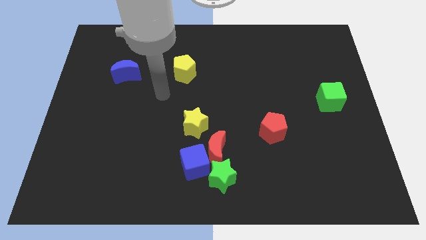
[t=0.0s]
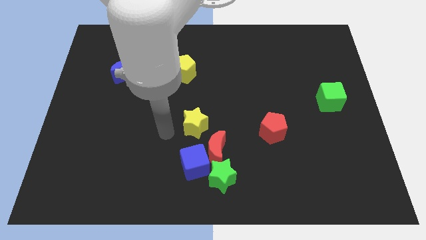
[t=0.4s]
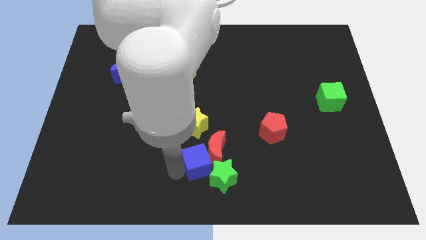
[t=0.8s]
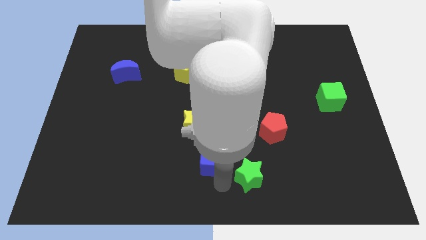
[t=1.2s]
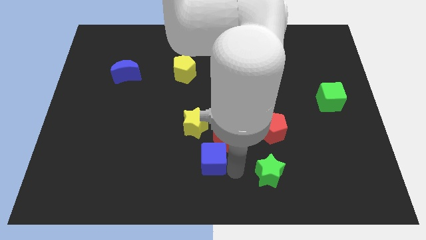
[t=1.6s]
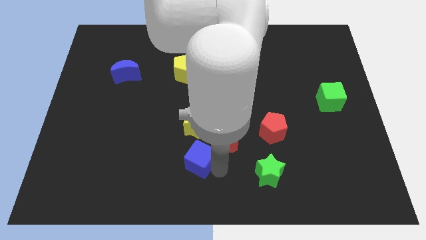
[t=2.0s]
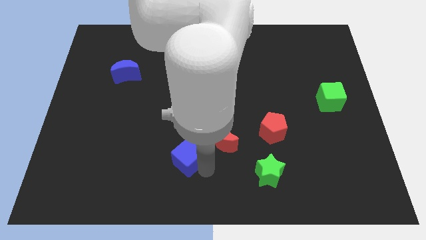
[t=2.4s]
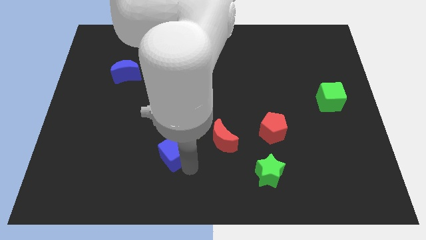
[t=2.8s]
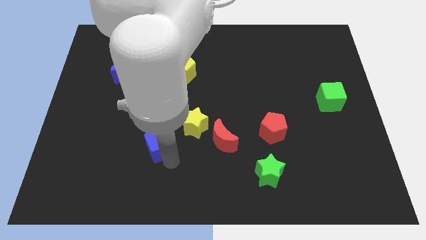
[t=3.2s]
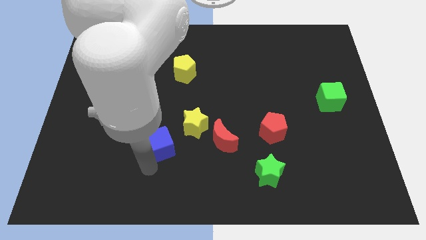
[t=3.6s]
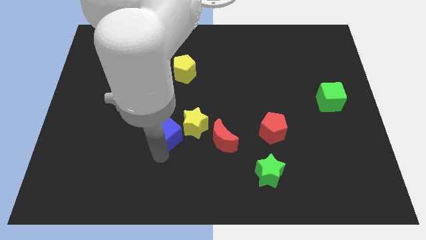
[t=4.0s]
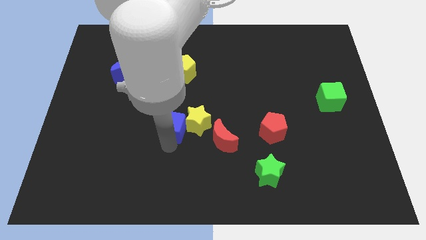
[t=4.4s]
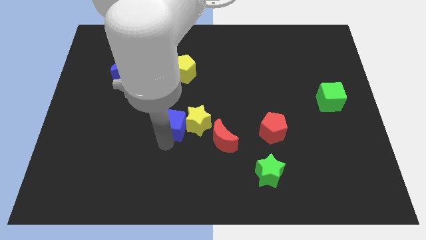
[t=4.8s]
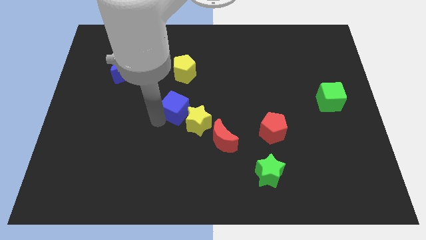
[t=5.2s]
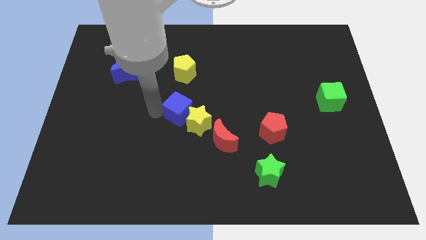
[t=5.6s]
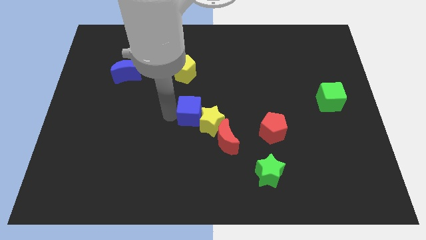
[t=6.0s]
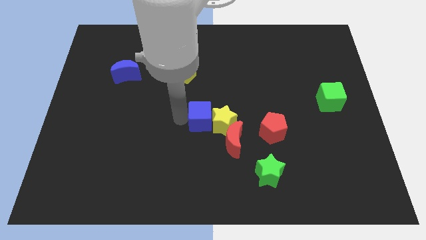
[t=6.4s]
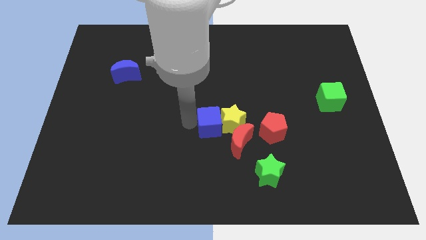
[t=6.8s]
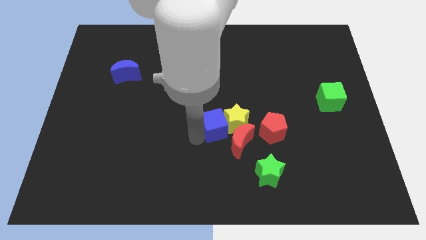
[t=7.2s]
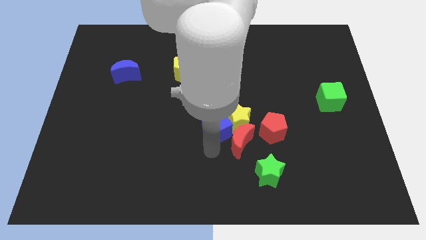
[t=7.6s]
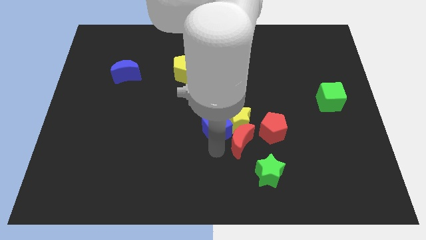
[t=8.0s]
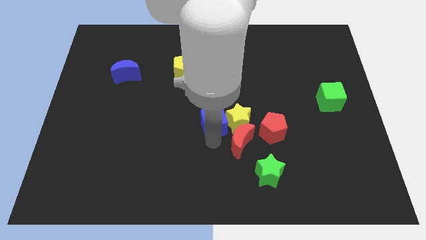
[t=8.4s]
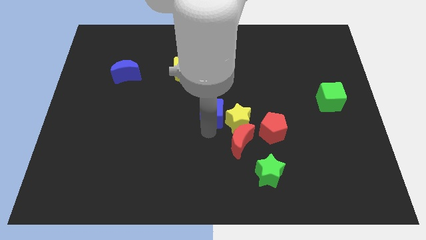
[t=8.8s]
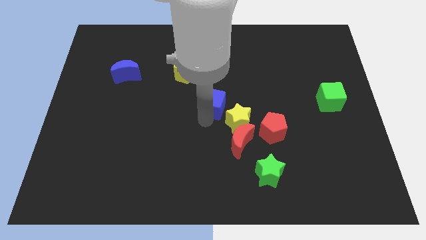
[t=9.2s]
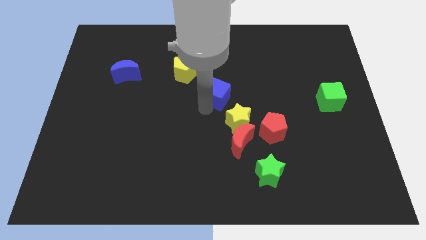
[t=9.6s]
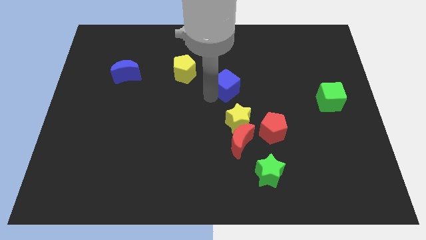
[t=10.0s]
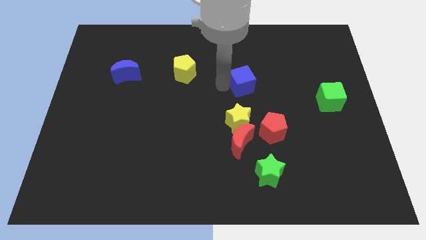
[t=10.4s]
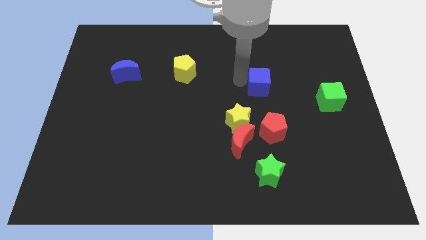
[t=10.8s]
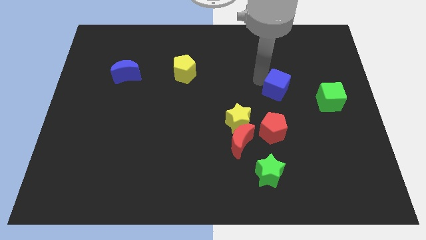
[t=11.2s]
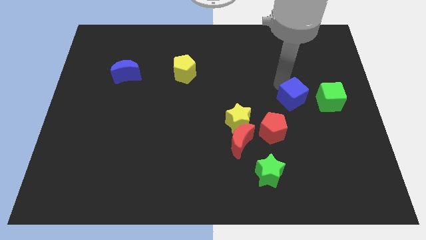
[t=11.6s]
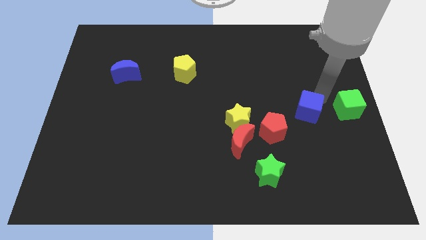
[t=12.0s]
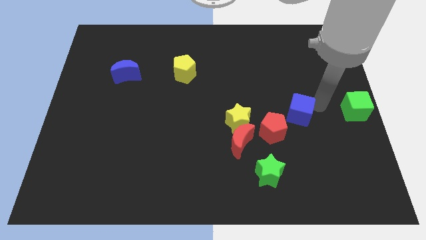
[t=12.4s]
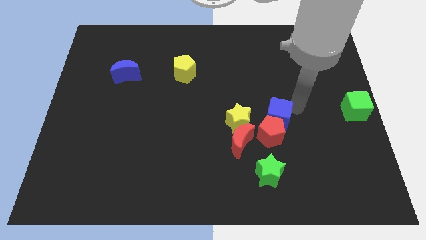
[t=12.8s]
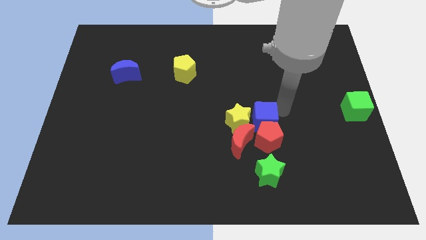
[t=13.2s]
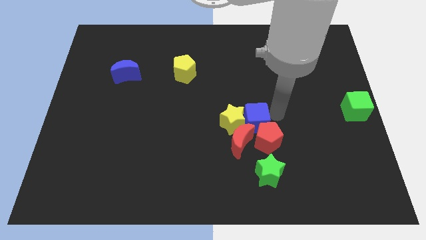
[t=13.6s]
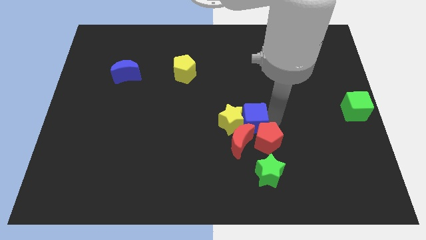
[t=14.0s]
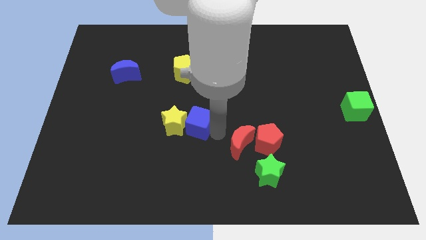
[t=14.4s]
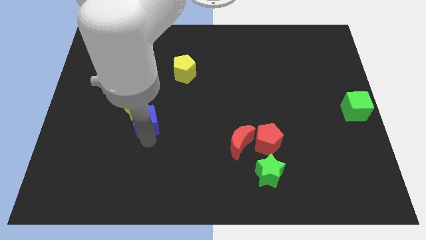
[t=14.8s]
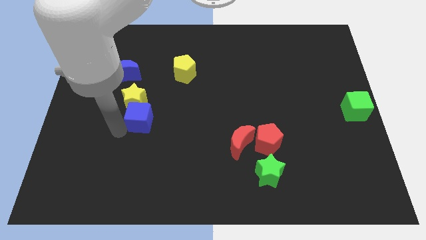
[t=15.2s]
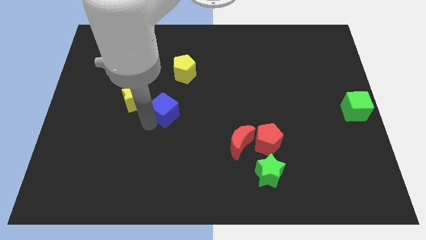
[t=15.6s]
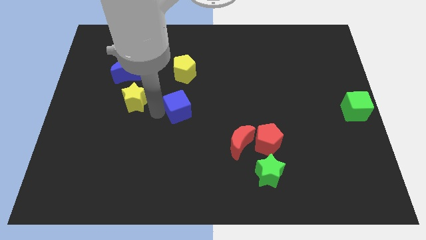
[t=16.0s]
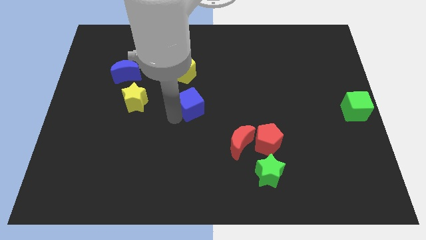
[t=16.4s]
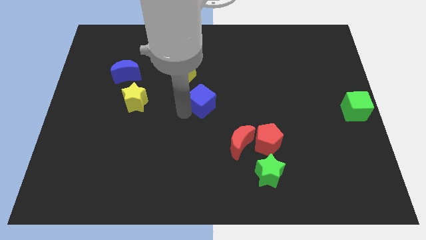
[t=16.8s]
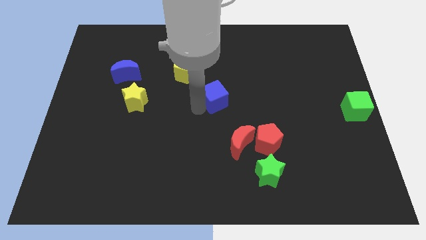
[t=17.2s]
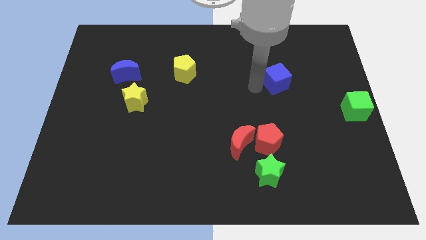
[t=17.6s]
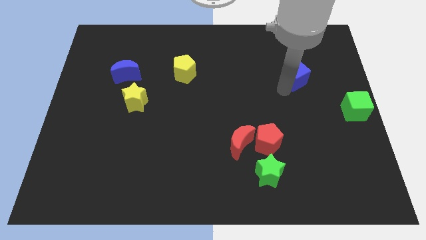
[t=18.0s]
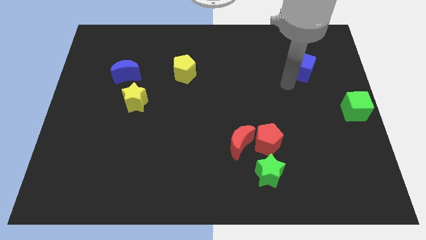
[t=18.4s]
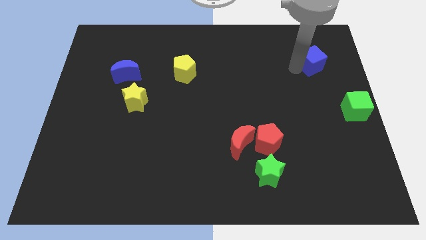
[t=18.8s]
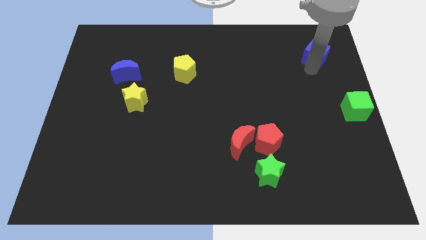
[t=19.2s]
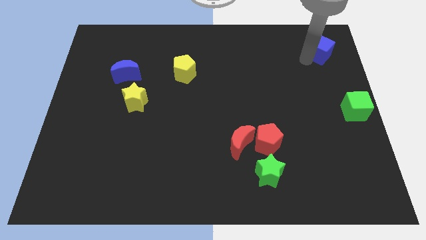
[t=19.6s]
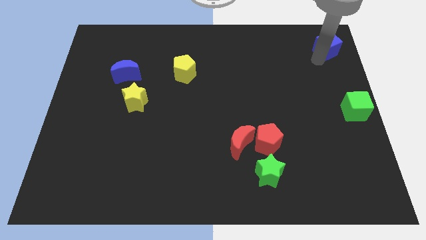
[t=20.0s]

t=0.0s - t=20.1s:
push the blue cube to the upper right corner

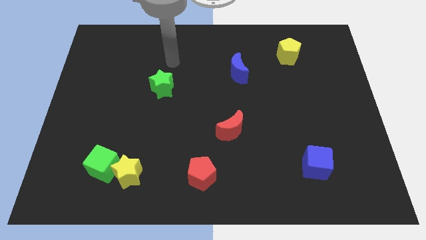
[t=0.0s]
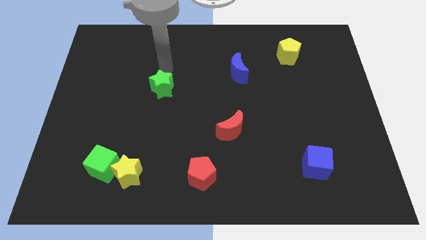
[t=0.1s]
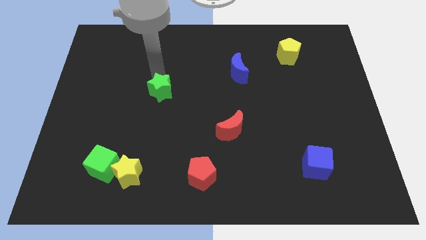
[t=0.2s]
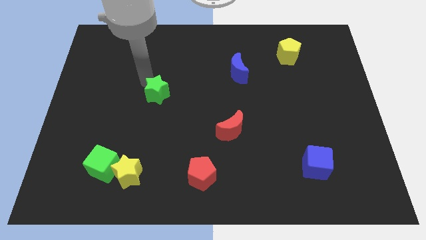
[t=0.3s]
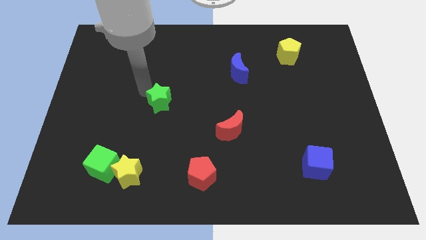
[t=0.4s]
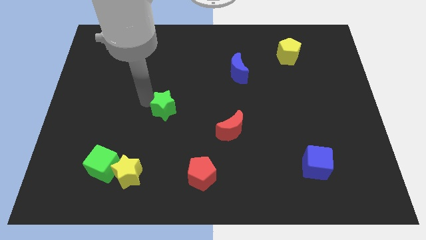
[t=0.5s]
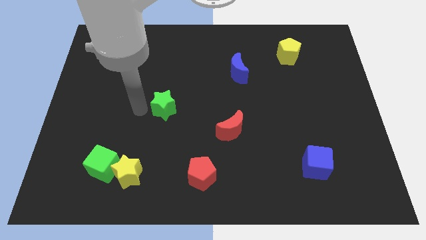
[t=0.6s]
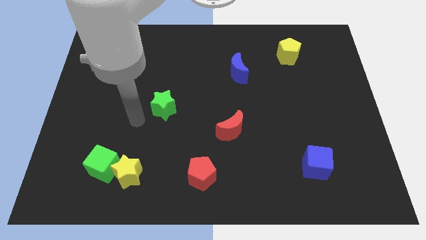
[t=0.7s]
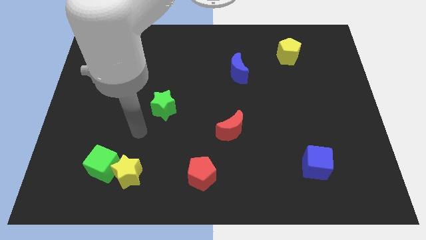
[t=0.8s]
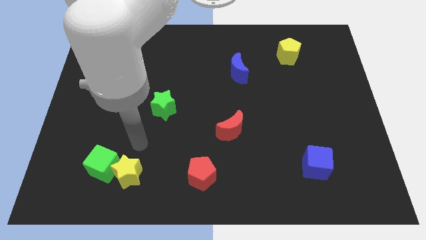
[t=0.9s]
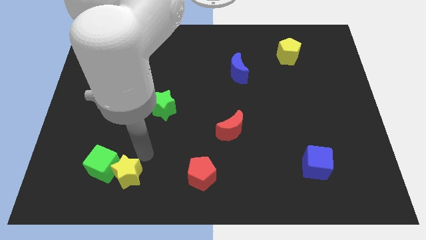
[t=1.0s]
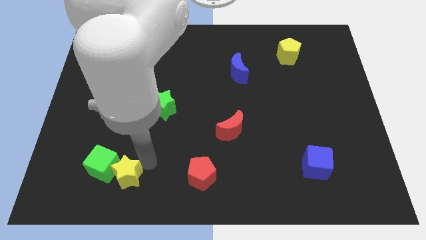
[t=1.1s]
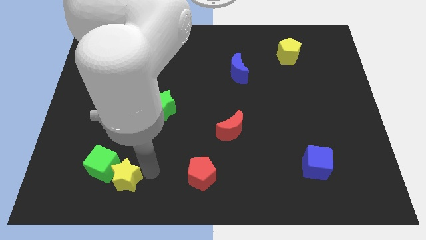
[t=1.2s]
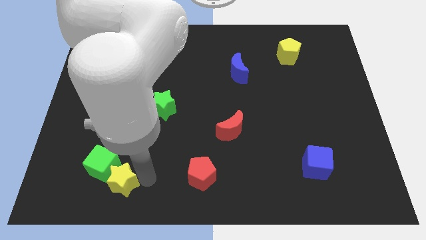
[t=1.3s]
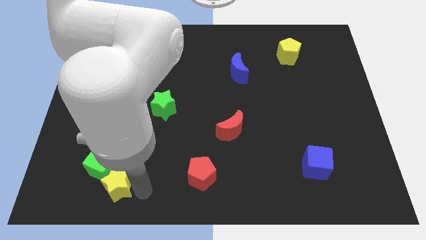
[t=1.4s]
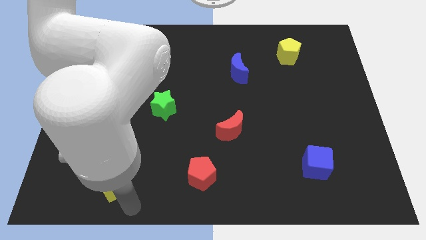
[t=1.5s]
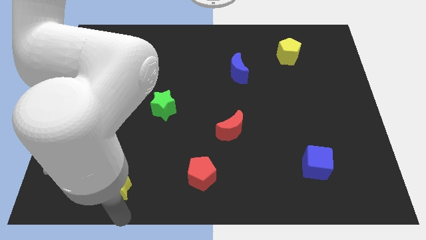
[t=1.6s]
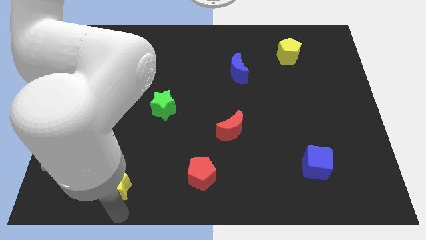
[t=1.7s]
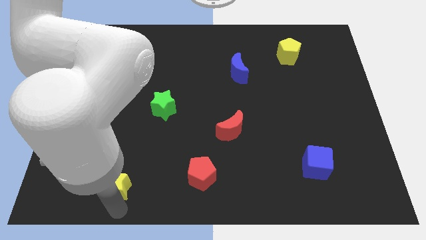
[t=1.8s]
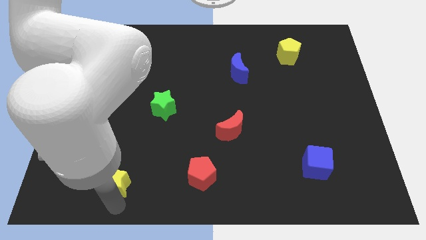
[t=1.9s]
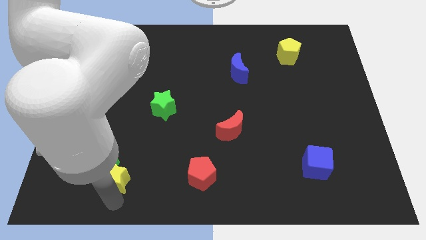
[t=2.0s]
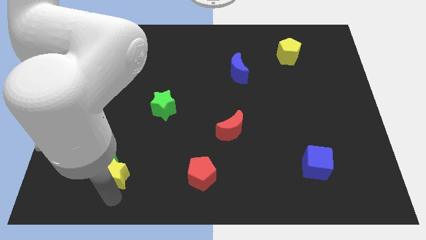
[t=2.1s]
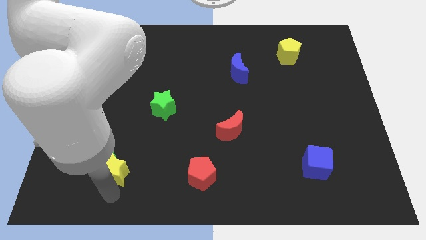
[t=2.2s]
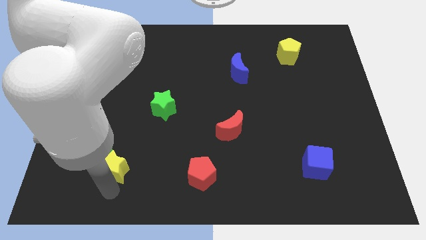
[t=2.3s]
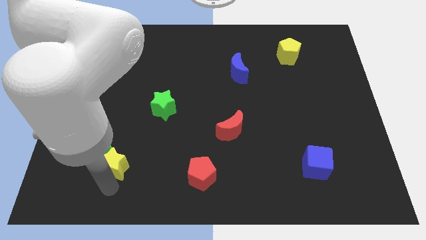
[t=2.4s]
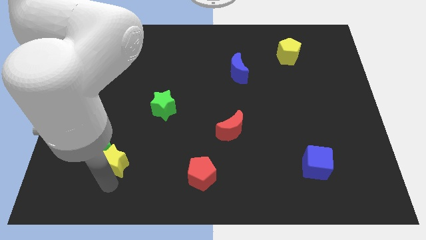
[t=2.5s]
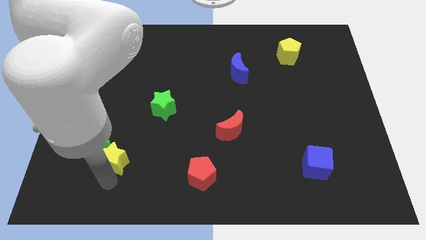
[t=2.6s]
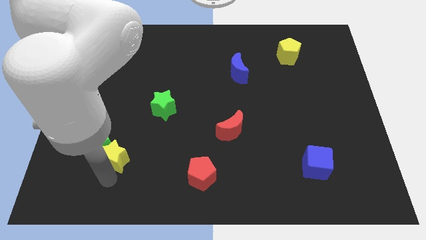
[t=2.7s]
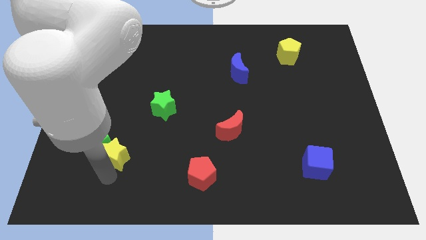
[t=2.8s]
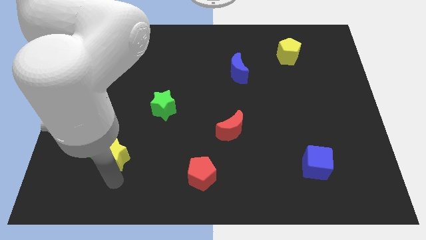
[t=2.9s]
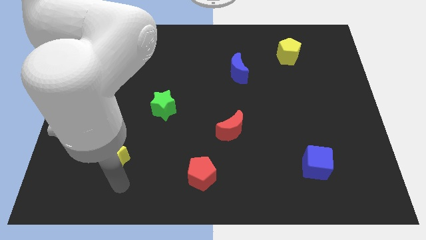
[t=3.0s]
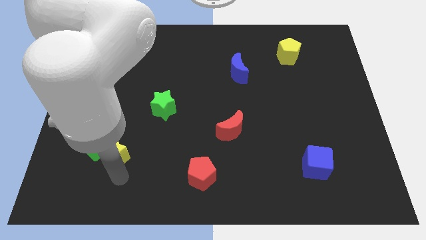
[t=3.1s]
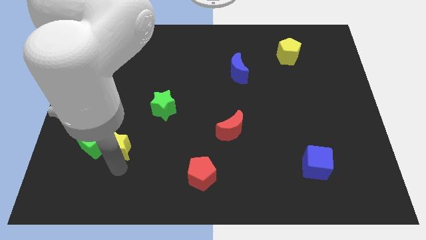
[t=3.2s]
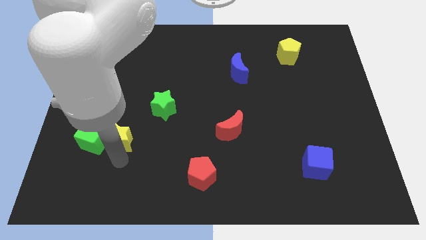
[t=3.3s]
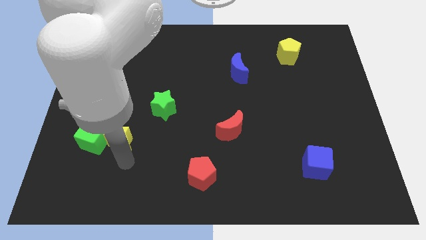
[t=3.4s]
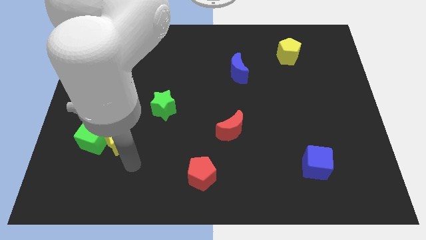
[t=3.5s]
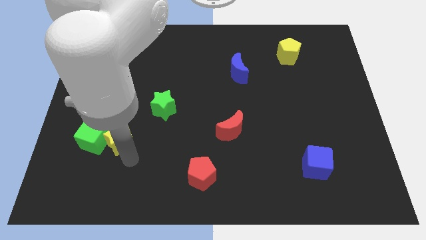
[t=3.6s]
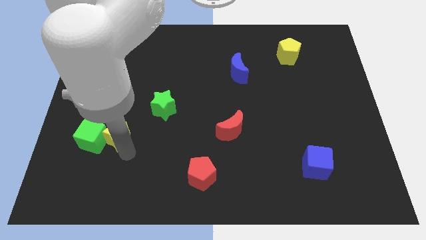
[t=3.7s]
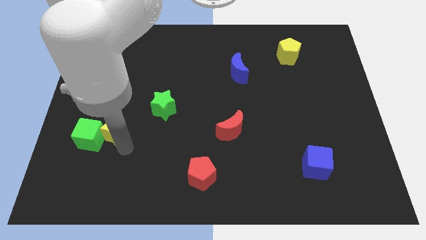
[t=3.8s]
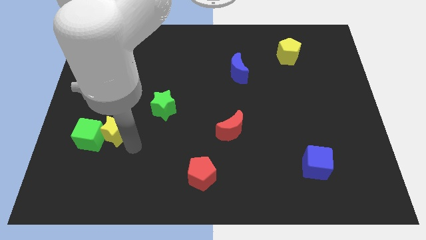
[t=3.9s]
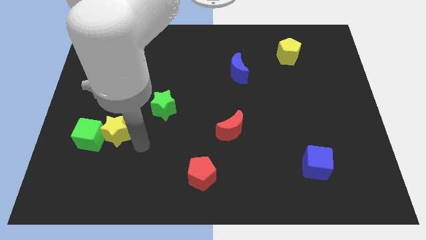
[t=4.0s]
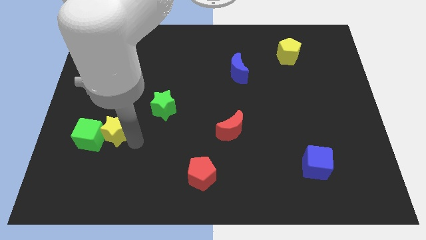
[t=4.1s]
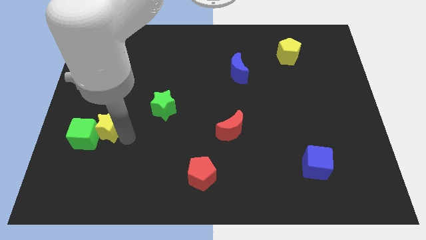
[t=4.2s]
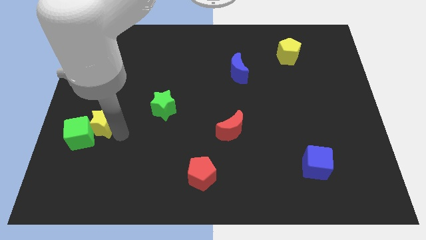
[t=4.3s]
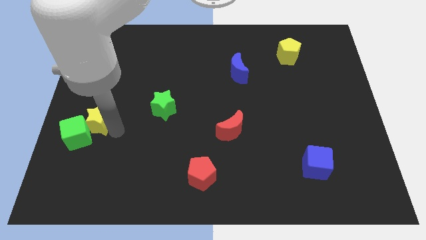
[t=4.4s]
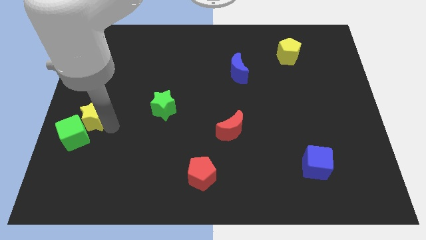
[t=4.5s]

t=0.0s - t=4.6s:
put the yellow star to the left side
